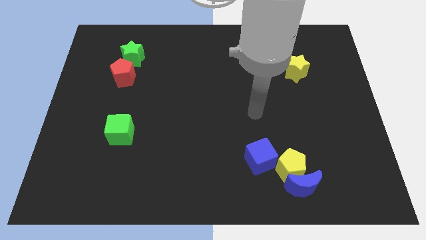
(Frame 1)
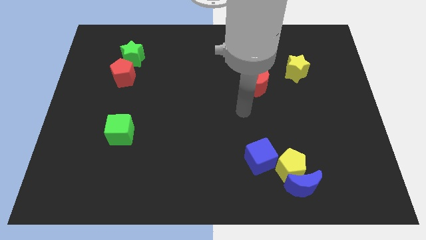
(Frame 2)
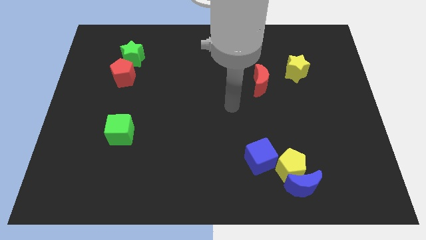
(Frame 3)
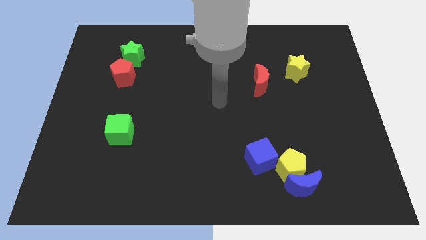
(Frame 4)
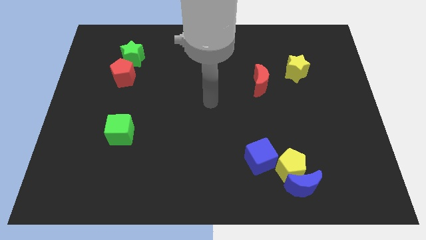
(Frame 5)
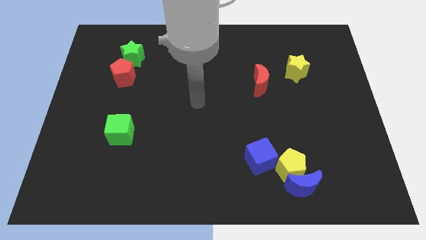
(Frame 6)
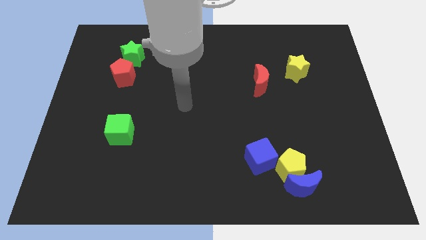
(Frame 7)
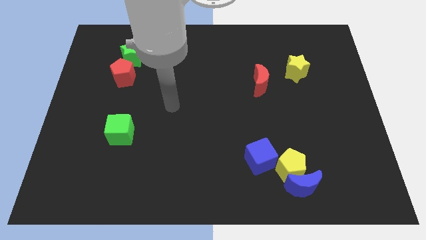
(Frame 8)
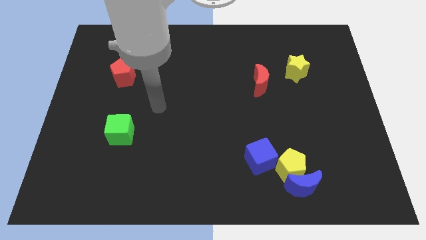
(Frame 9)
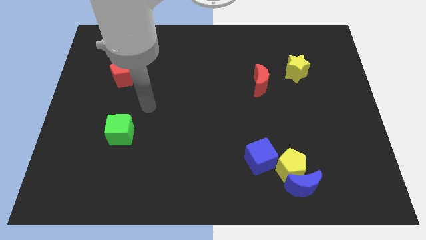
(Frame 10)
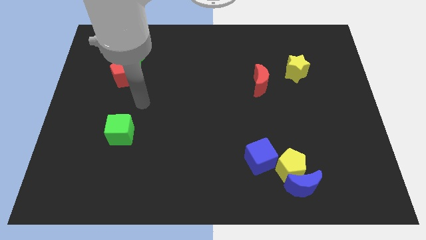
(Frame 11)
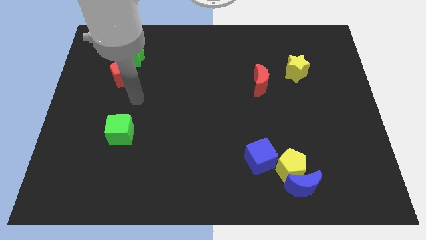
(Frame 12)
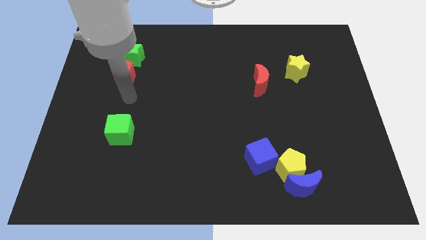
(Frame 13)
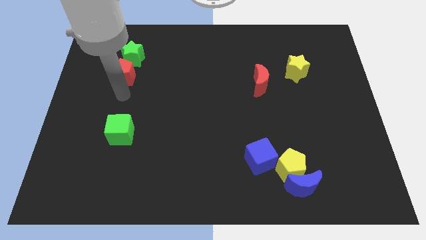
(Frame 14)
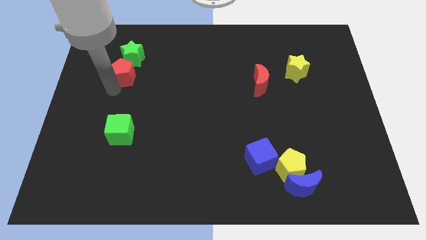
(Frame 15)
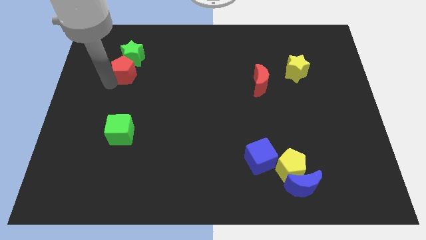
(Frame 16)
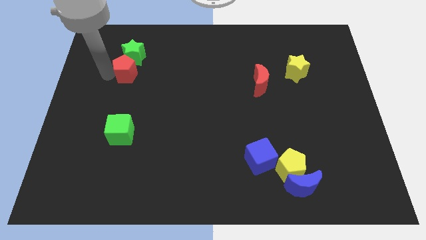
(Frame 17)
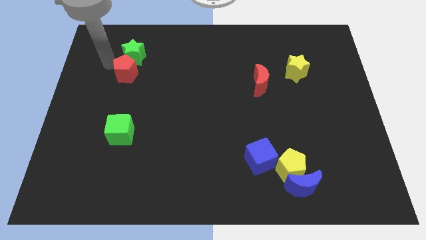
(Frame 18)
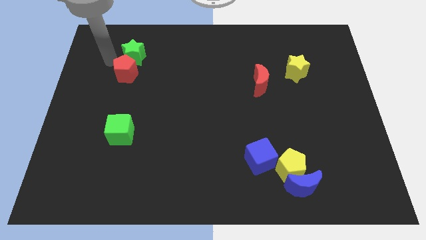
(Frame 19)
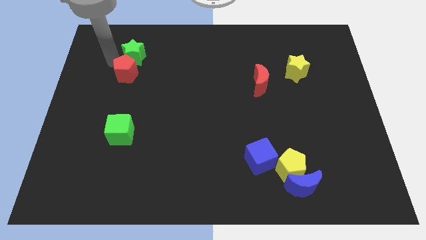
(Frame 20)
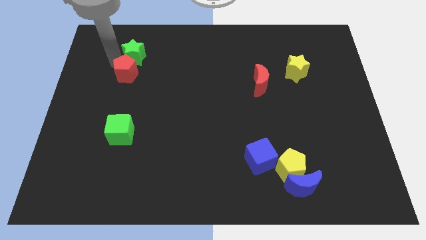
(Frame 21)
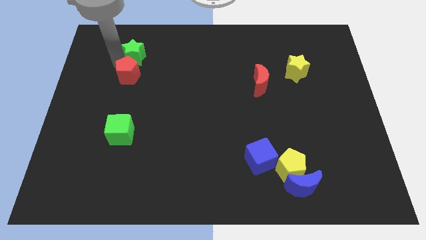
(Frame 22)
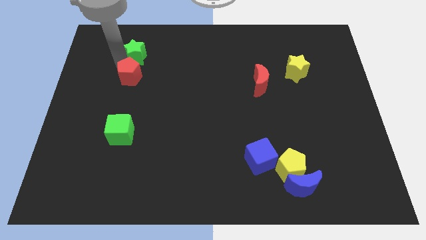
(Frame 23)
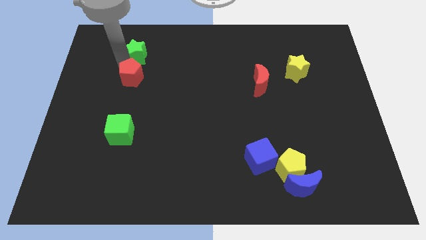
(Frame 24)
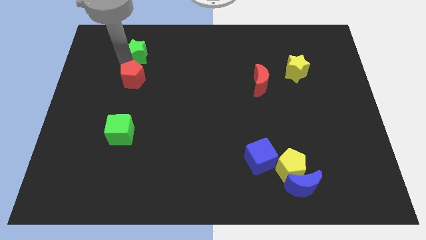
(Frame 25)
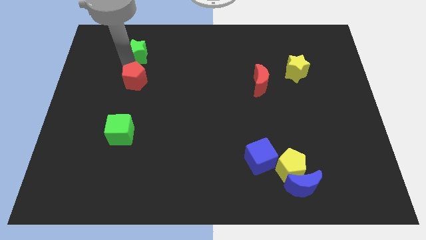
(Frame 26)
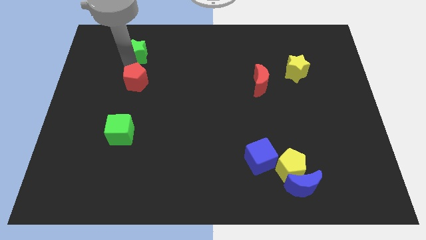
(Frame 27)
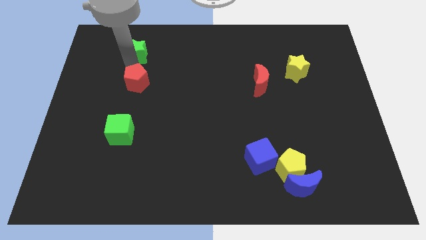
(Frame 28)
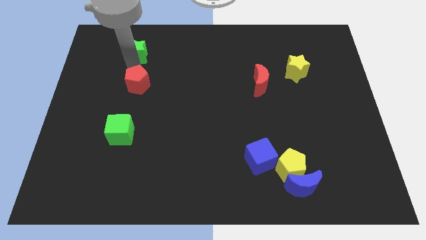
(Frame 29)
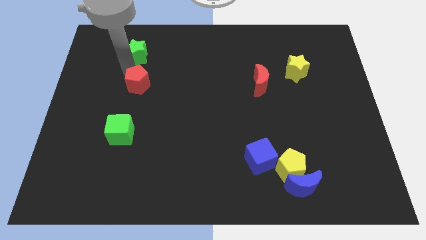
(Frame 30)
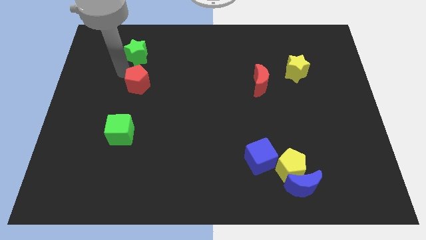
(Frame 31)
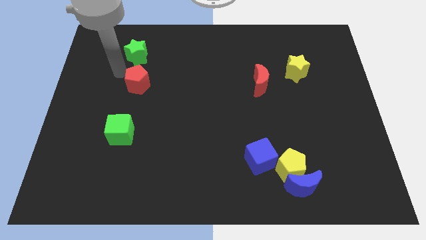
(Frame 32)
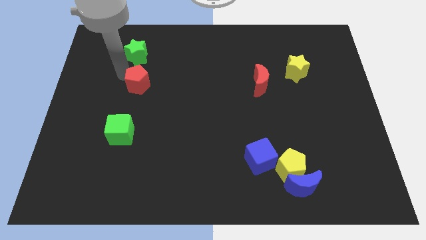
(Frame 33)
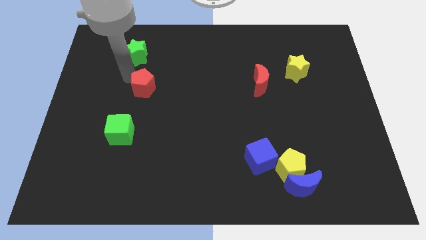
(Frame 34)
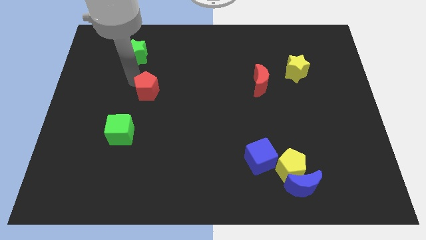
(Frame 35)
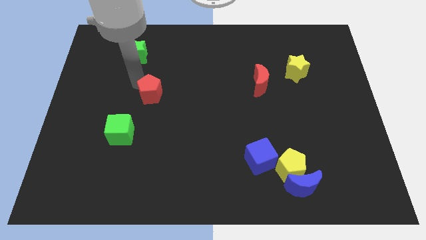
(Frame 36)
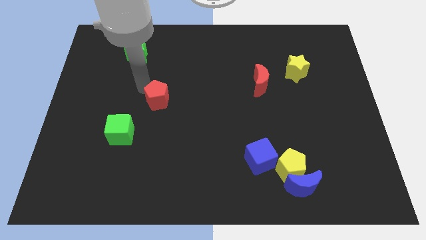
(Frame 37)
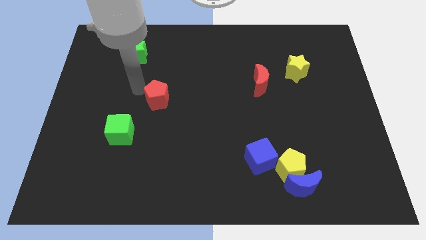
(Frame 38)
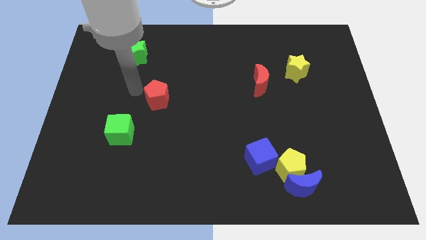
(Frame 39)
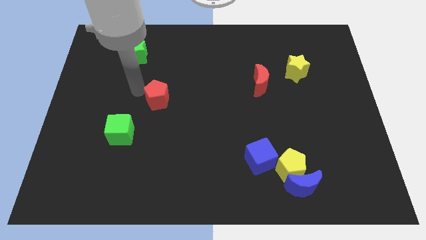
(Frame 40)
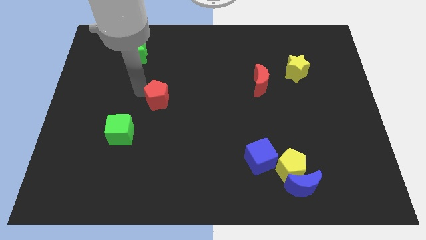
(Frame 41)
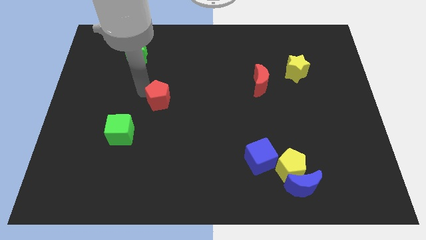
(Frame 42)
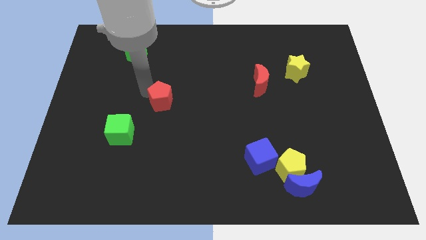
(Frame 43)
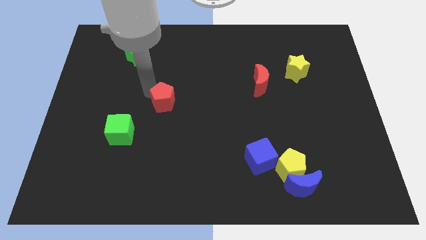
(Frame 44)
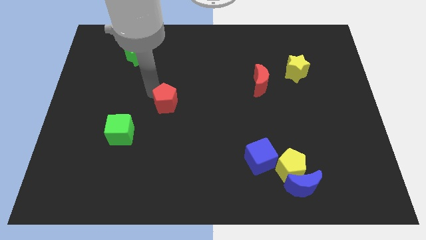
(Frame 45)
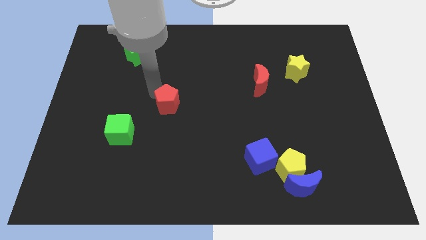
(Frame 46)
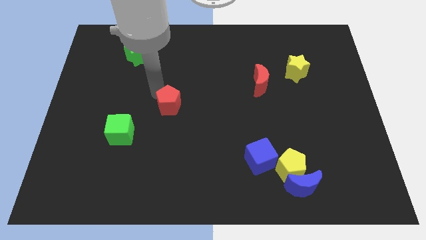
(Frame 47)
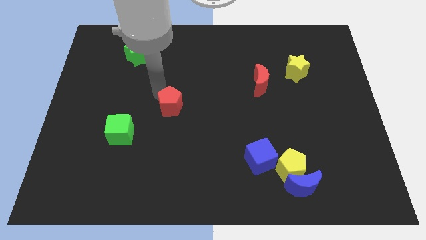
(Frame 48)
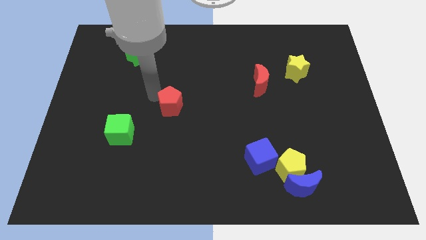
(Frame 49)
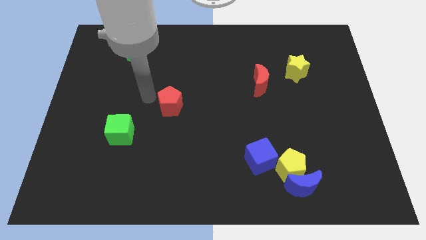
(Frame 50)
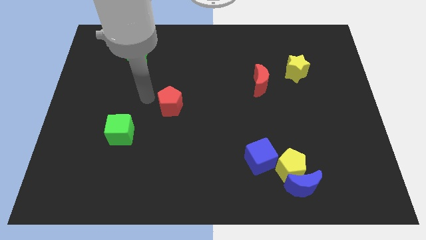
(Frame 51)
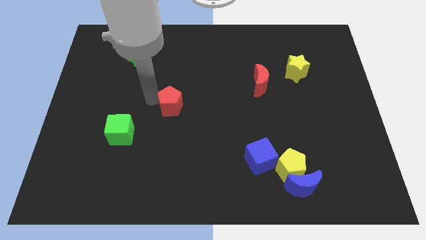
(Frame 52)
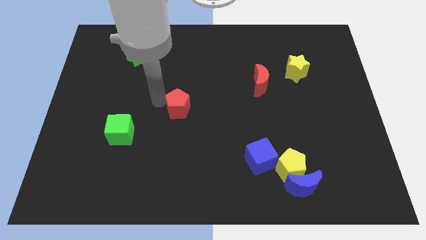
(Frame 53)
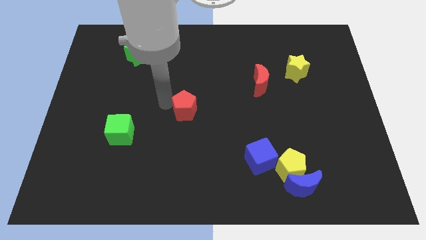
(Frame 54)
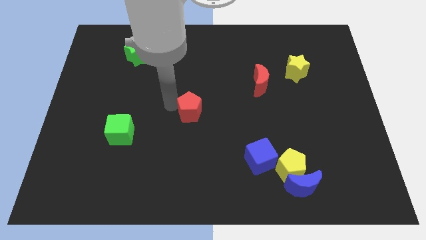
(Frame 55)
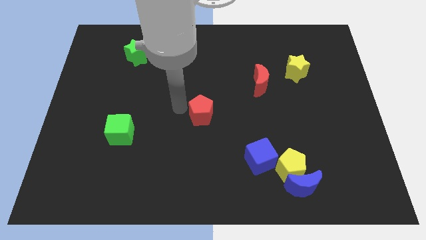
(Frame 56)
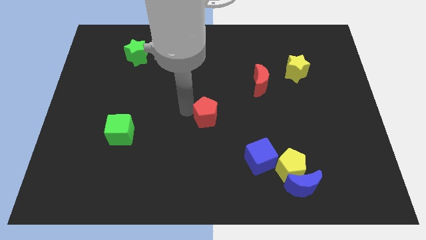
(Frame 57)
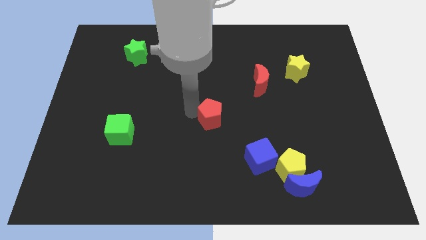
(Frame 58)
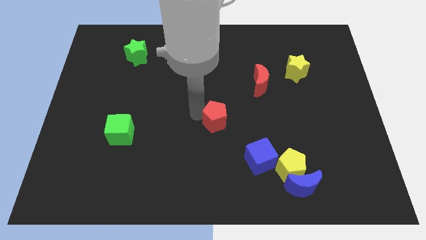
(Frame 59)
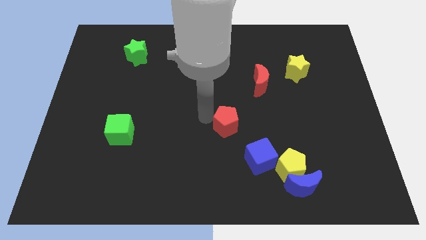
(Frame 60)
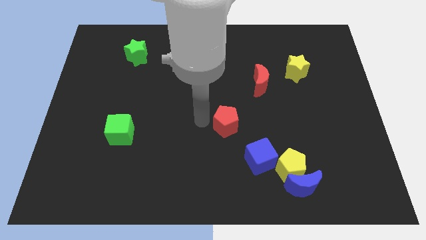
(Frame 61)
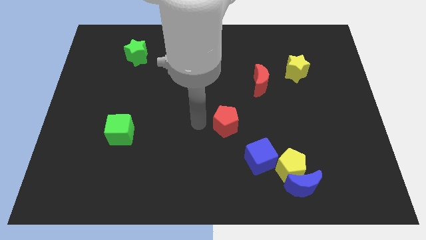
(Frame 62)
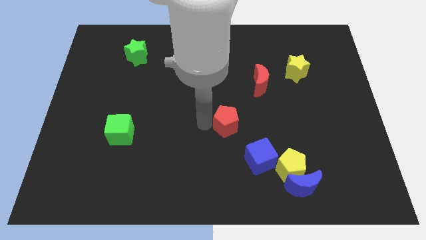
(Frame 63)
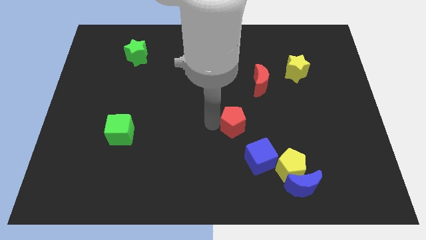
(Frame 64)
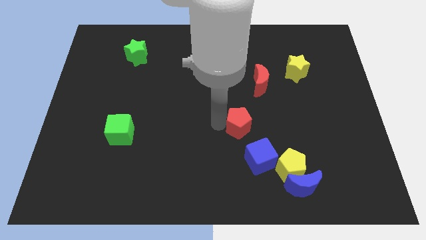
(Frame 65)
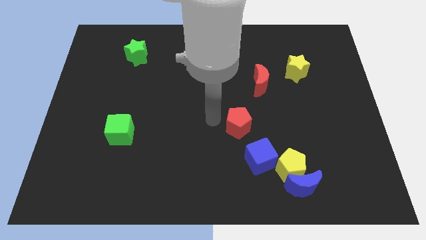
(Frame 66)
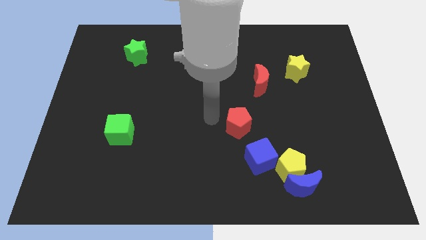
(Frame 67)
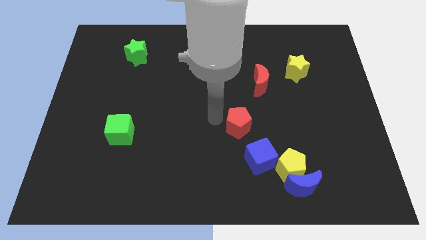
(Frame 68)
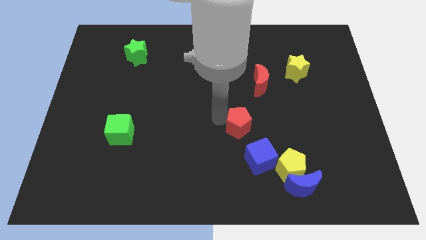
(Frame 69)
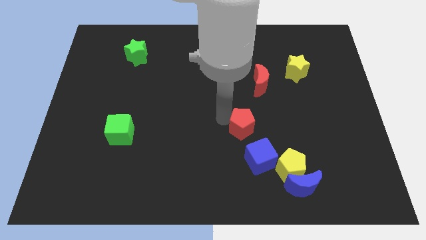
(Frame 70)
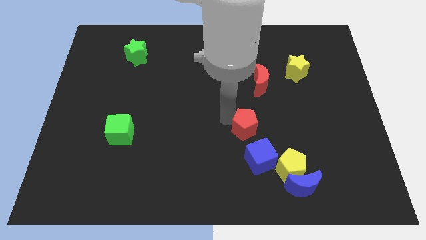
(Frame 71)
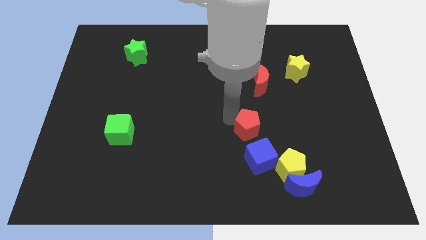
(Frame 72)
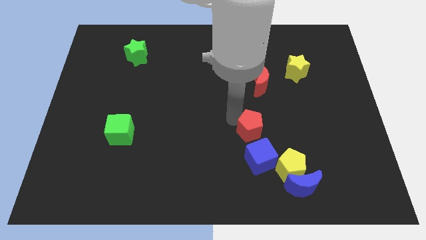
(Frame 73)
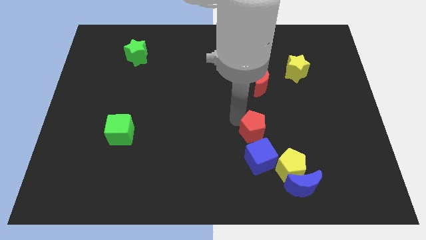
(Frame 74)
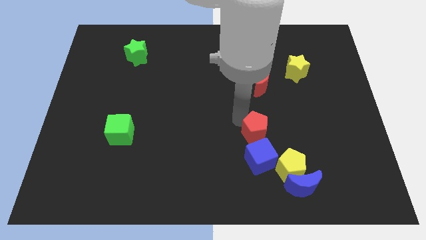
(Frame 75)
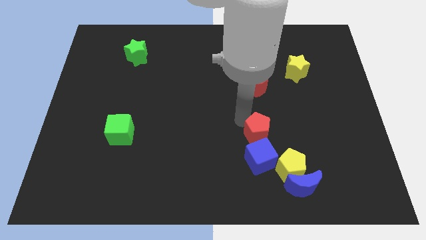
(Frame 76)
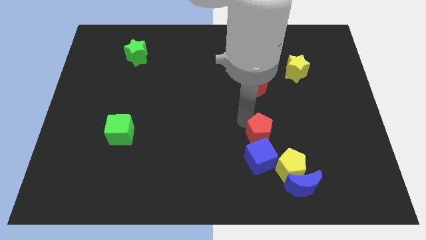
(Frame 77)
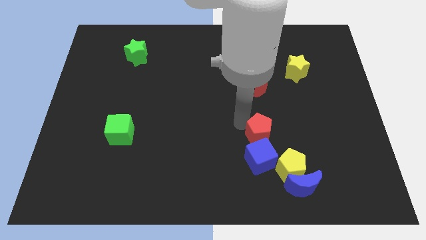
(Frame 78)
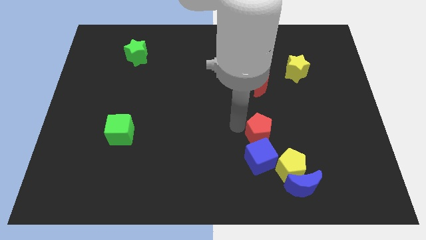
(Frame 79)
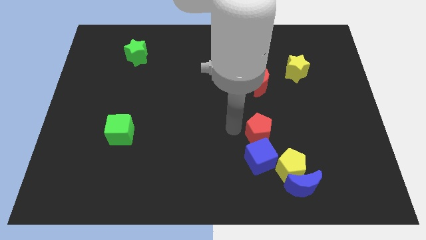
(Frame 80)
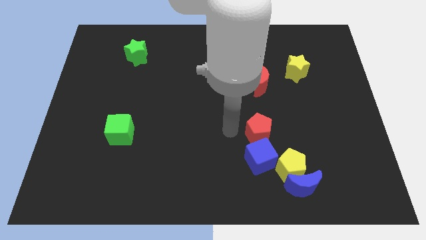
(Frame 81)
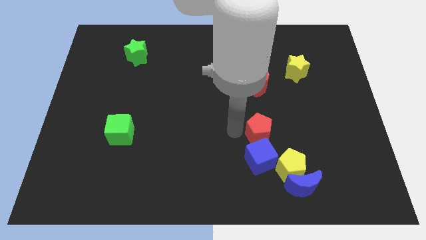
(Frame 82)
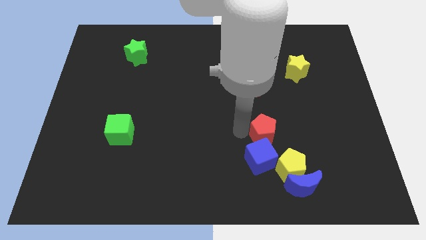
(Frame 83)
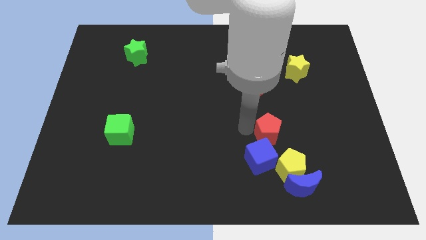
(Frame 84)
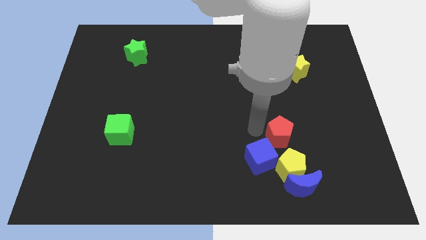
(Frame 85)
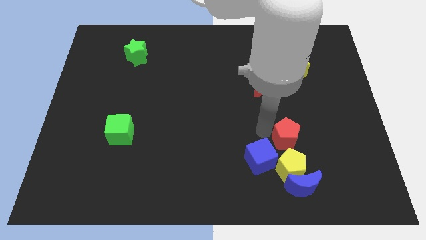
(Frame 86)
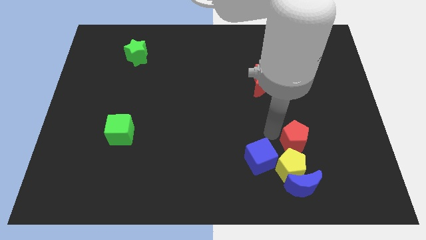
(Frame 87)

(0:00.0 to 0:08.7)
push the red pentagon to the top right side of the yellow pentagon
